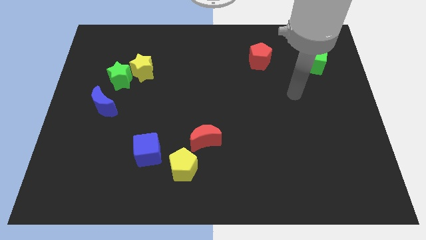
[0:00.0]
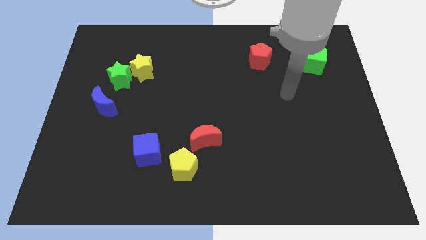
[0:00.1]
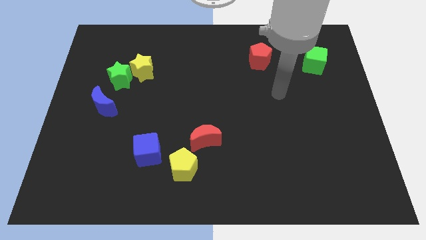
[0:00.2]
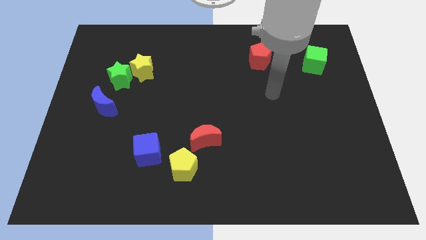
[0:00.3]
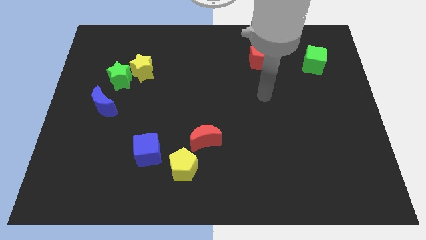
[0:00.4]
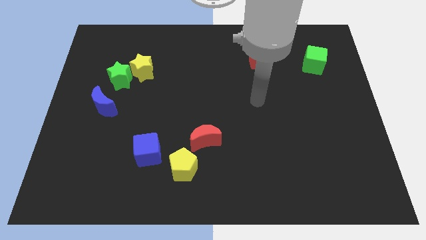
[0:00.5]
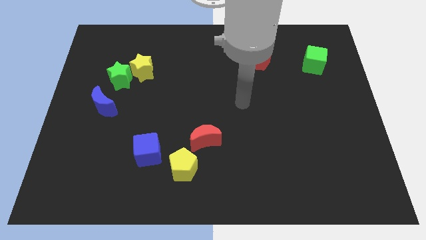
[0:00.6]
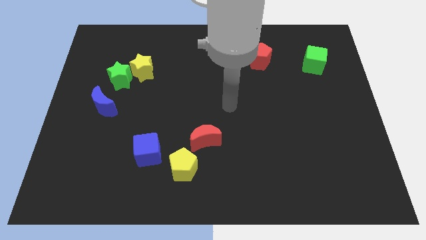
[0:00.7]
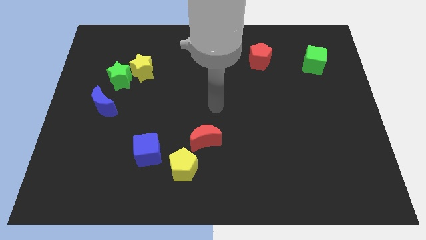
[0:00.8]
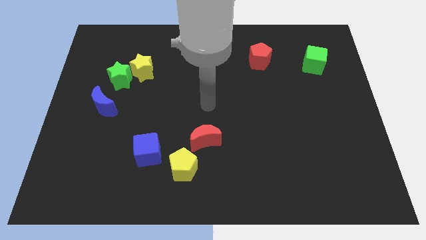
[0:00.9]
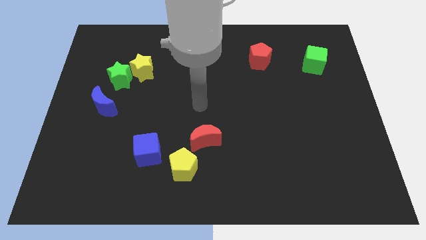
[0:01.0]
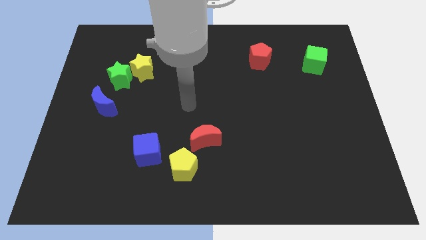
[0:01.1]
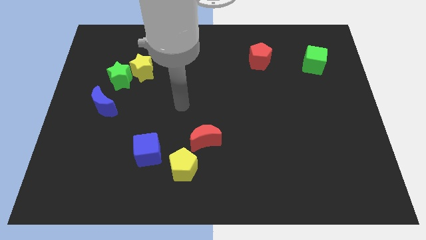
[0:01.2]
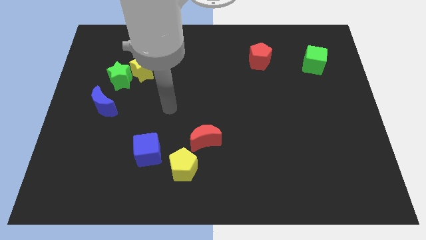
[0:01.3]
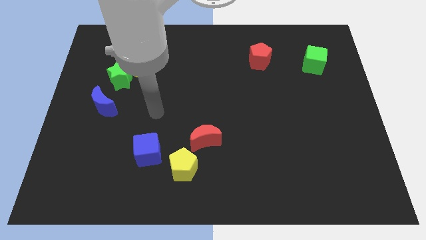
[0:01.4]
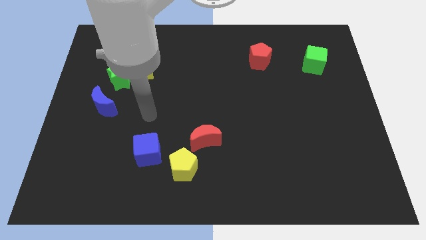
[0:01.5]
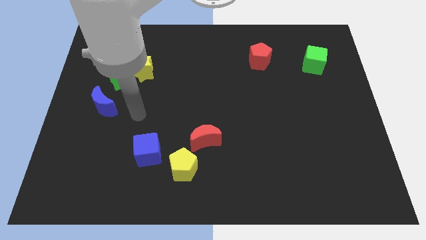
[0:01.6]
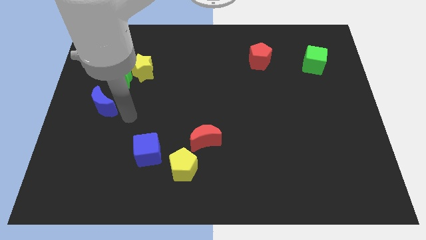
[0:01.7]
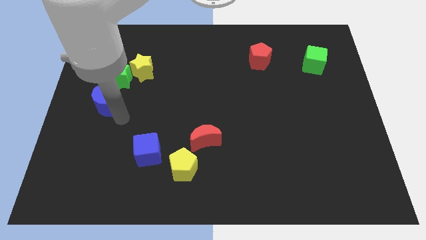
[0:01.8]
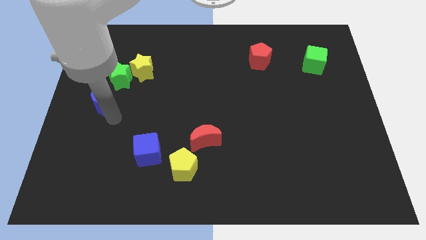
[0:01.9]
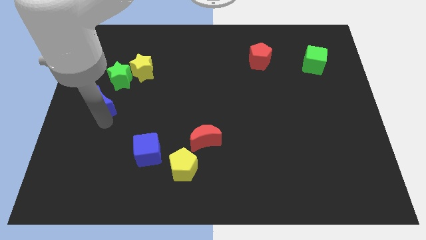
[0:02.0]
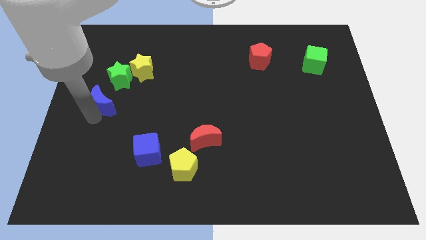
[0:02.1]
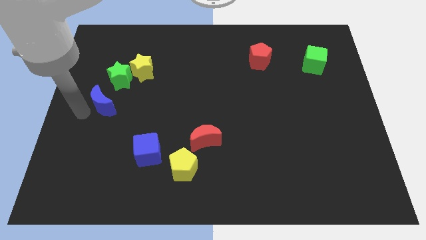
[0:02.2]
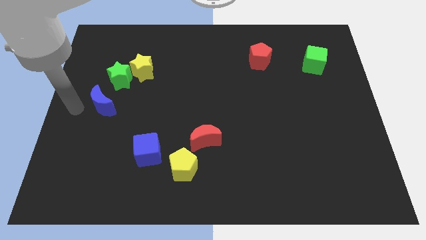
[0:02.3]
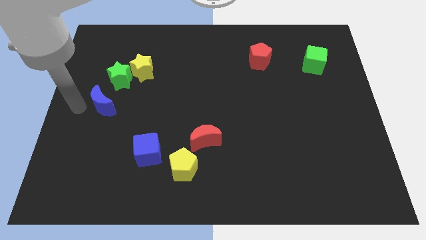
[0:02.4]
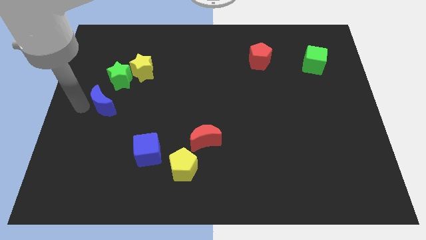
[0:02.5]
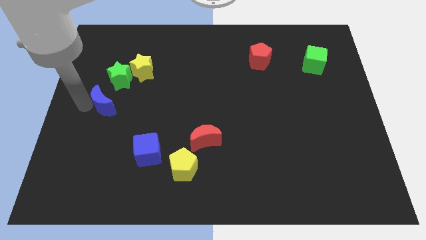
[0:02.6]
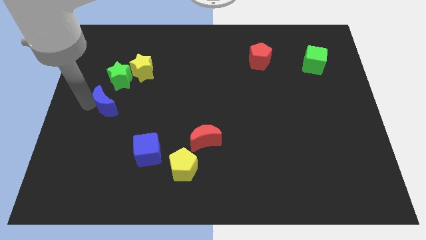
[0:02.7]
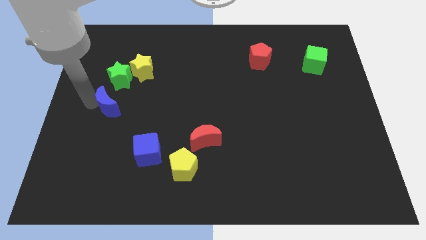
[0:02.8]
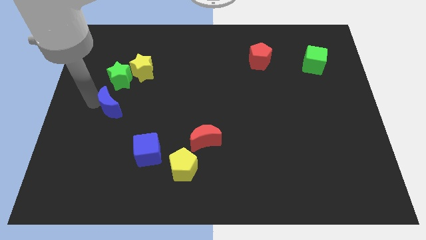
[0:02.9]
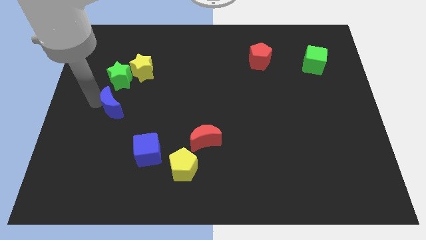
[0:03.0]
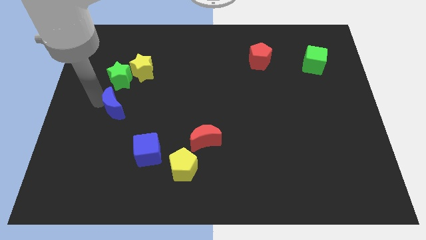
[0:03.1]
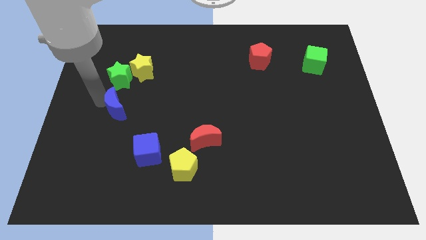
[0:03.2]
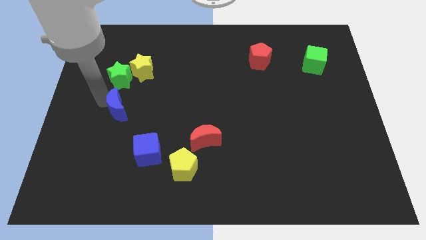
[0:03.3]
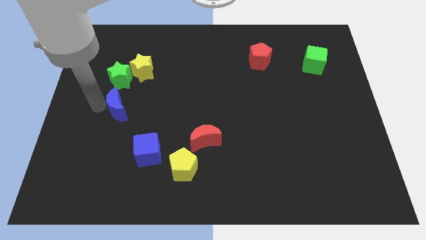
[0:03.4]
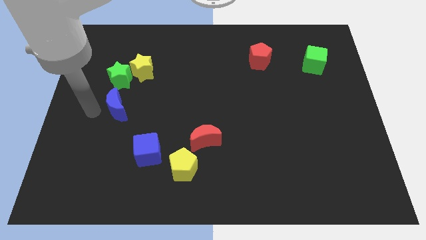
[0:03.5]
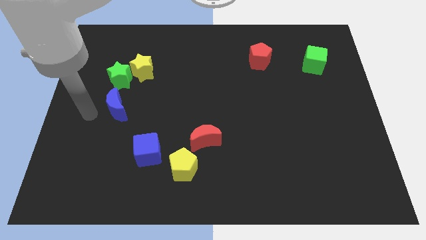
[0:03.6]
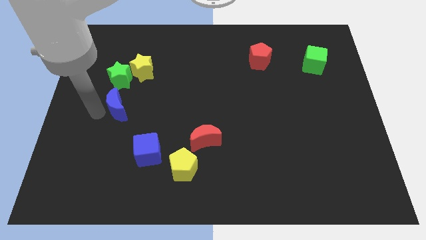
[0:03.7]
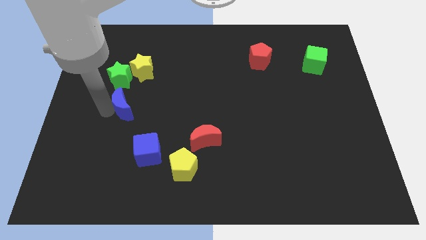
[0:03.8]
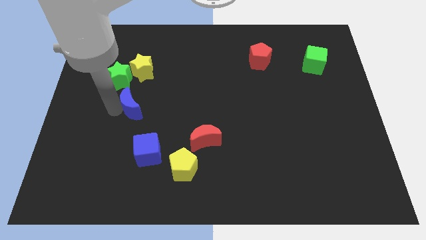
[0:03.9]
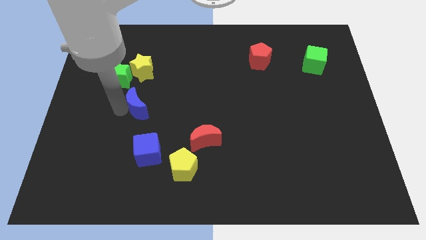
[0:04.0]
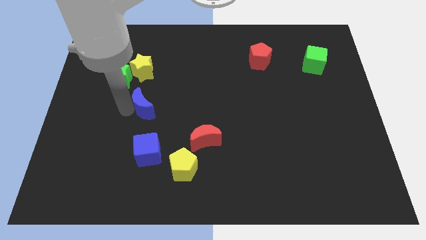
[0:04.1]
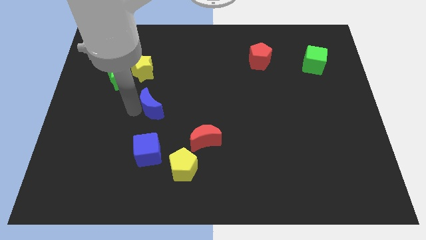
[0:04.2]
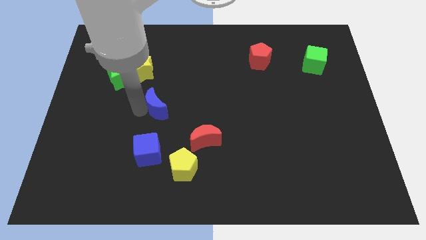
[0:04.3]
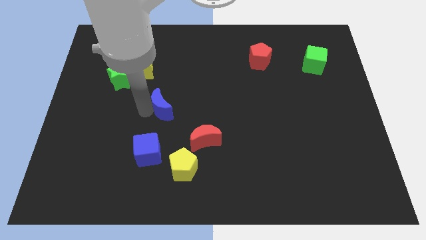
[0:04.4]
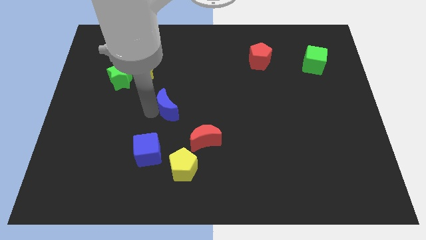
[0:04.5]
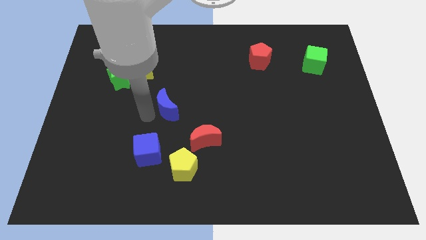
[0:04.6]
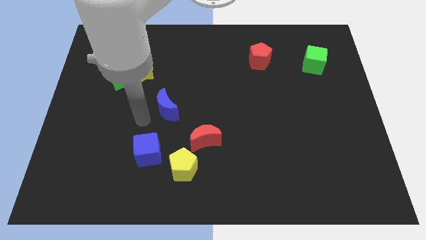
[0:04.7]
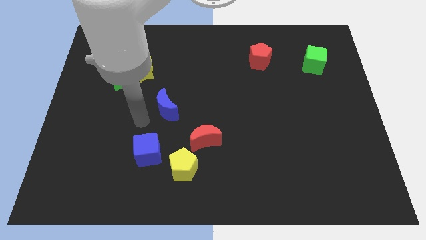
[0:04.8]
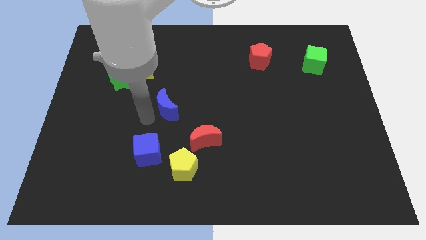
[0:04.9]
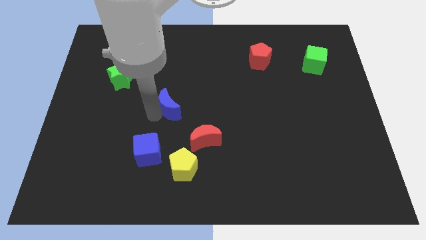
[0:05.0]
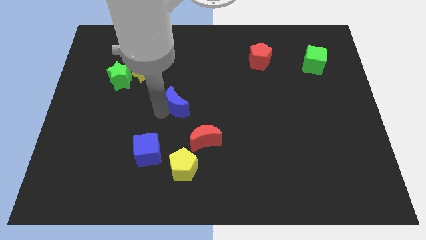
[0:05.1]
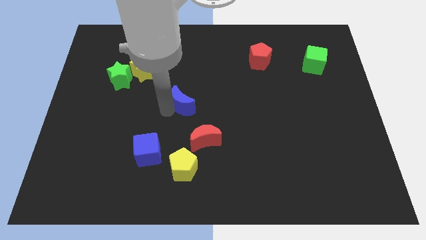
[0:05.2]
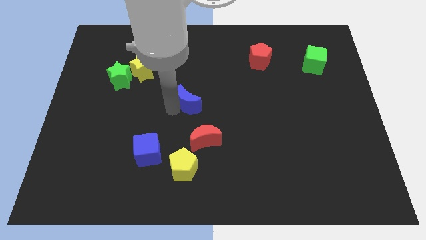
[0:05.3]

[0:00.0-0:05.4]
move the blue moon to the right

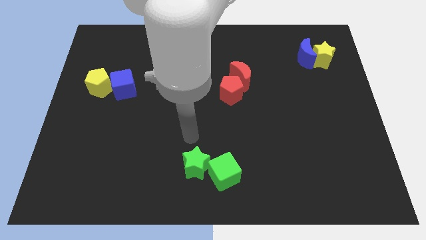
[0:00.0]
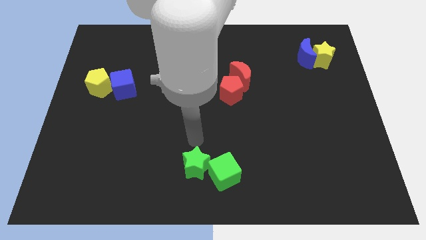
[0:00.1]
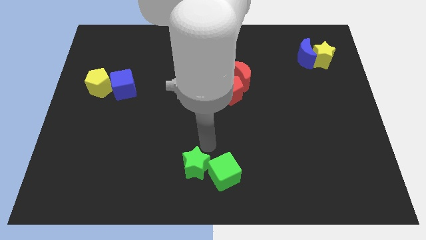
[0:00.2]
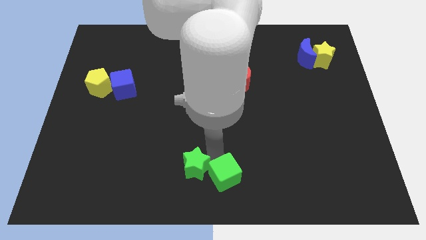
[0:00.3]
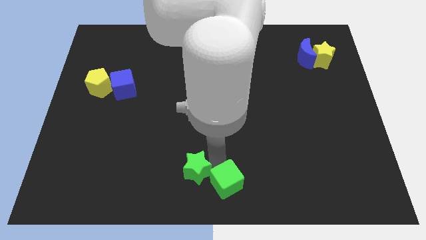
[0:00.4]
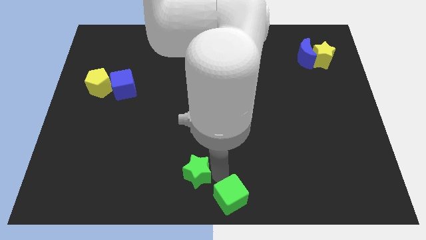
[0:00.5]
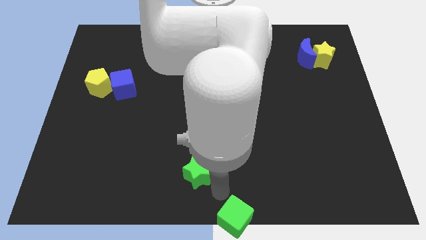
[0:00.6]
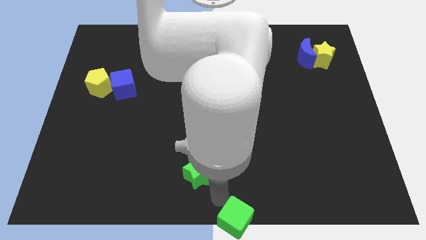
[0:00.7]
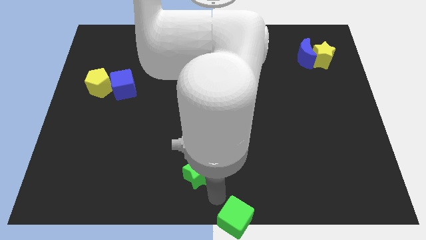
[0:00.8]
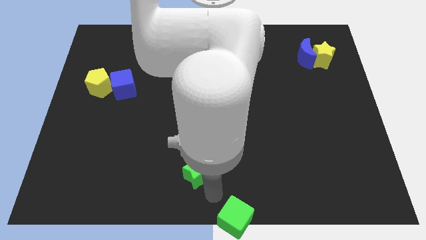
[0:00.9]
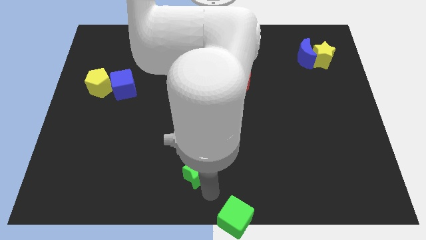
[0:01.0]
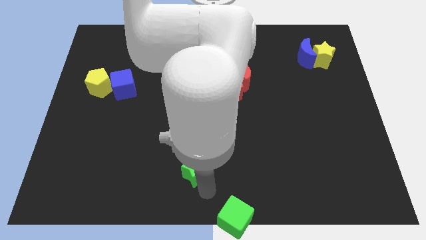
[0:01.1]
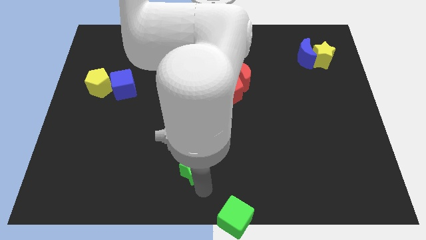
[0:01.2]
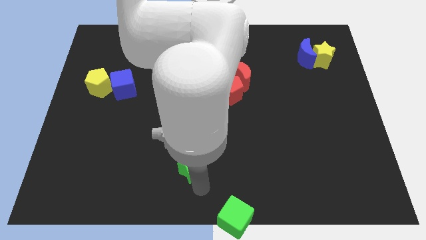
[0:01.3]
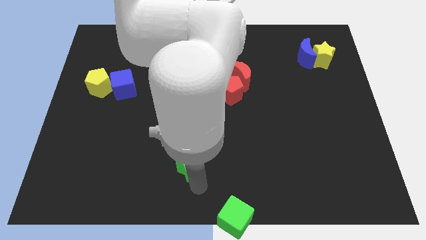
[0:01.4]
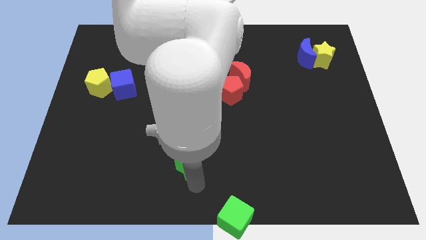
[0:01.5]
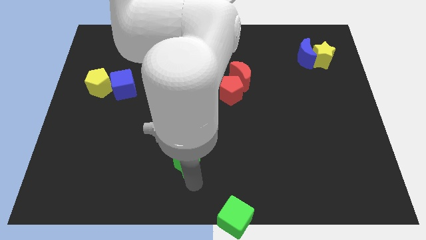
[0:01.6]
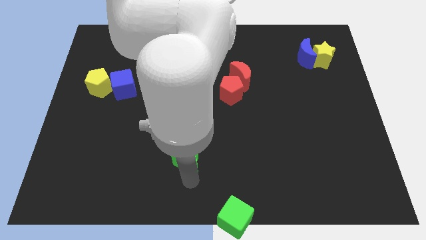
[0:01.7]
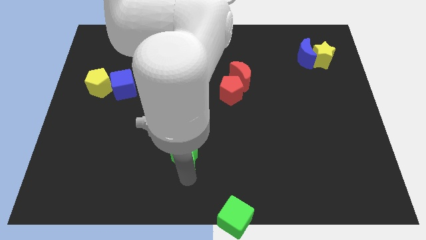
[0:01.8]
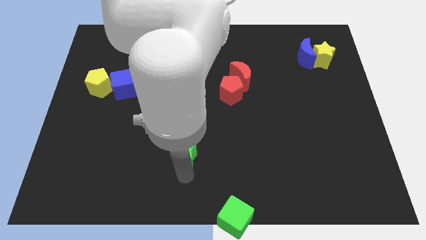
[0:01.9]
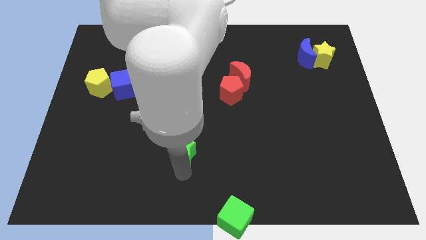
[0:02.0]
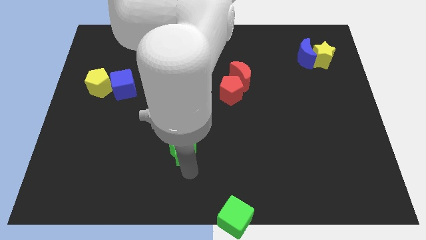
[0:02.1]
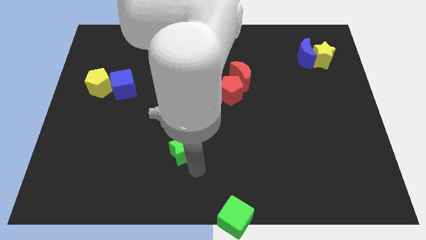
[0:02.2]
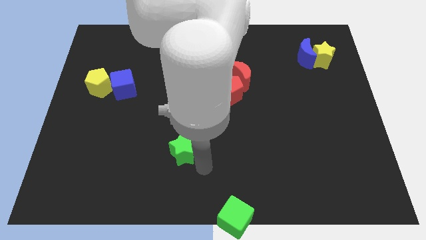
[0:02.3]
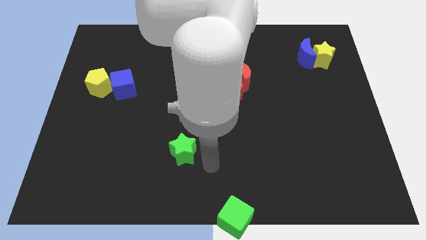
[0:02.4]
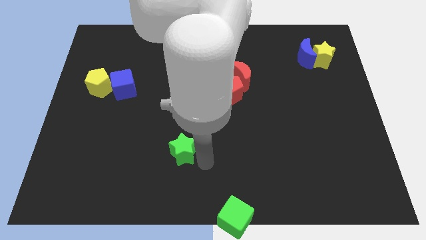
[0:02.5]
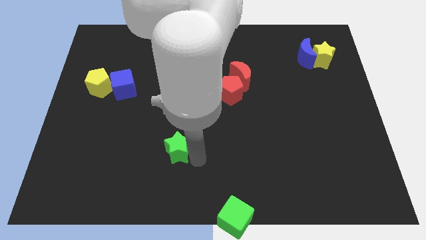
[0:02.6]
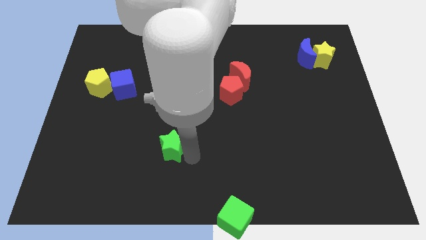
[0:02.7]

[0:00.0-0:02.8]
push the green star upwards and left diagonally a little bit
